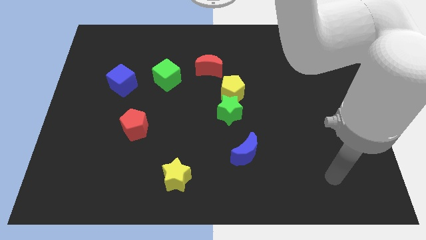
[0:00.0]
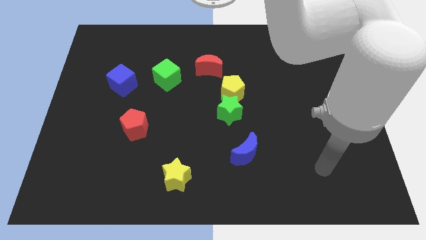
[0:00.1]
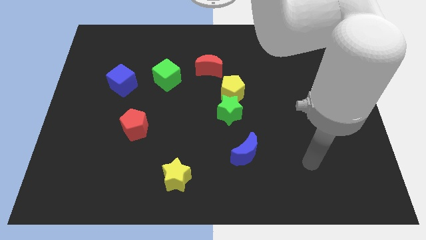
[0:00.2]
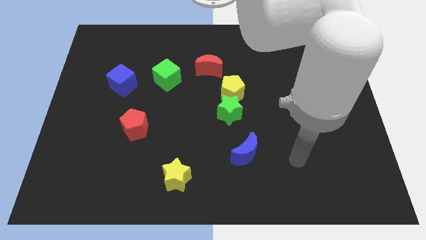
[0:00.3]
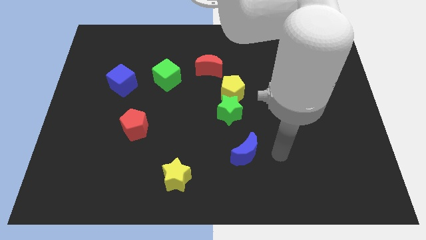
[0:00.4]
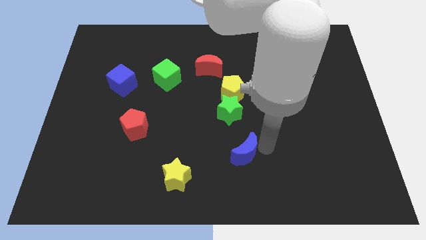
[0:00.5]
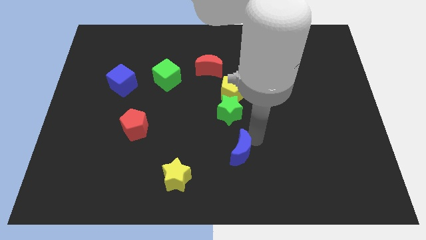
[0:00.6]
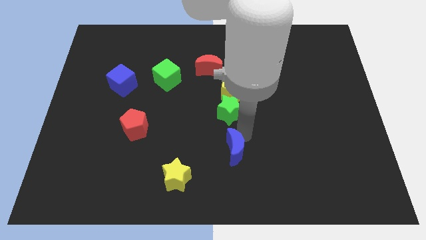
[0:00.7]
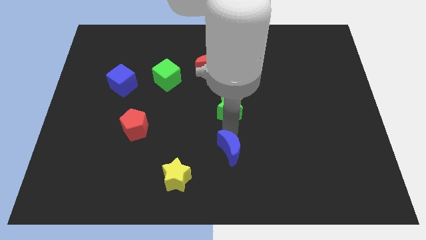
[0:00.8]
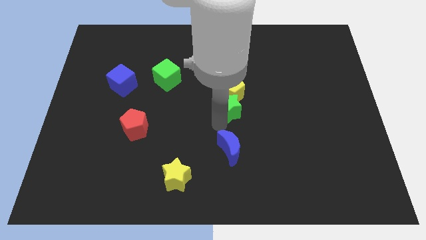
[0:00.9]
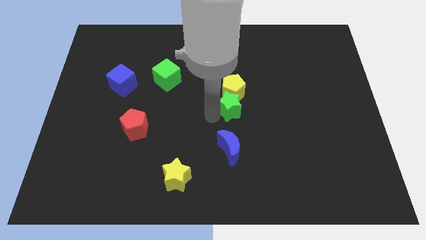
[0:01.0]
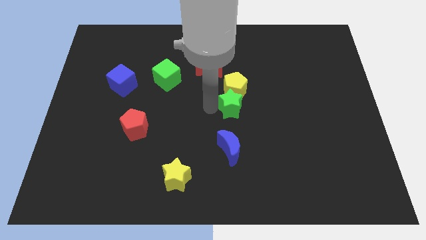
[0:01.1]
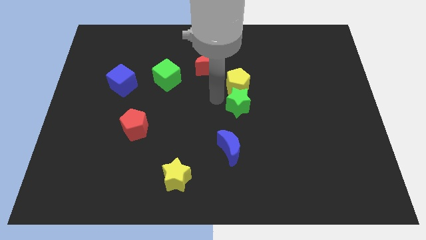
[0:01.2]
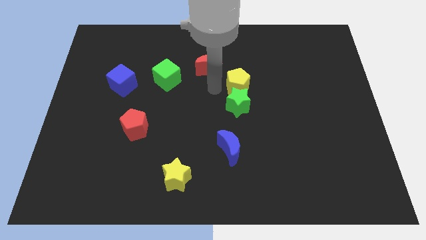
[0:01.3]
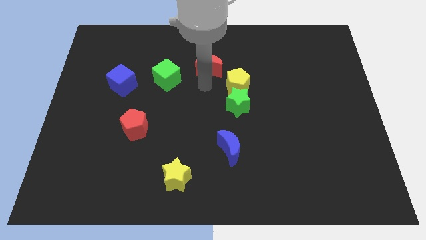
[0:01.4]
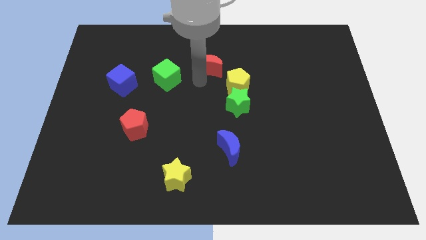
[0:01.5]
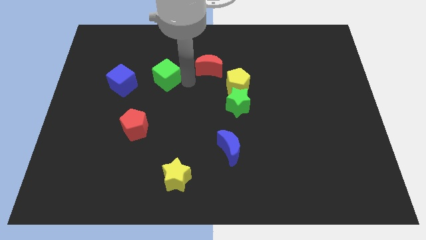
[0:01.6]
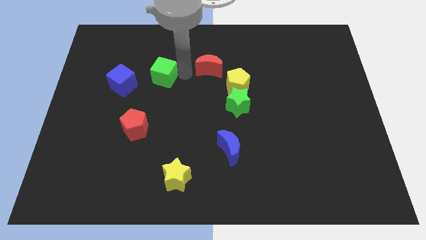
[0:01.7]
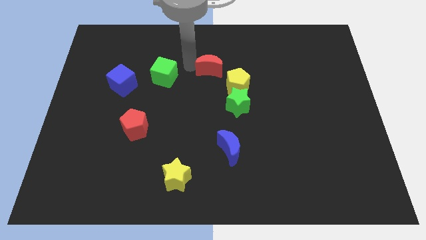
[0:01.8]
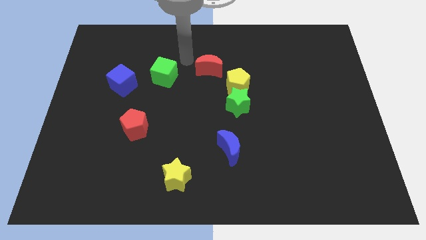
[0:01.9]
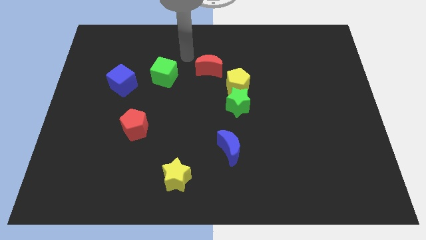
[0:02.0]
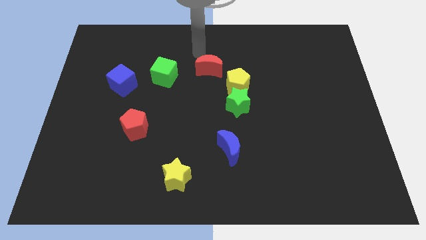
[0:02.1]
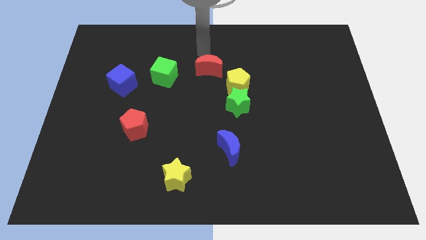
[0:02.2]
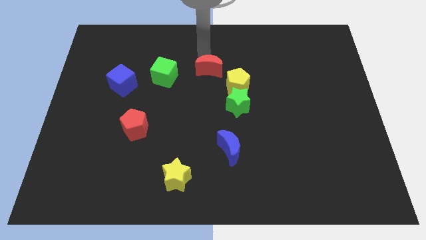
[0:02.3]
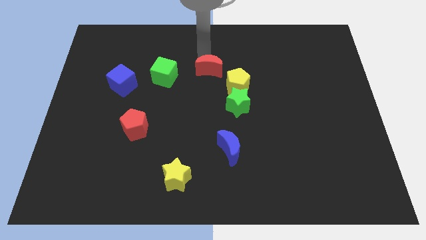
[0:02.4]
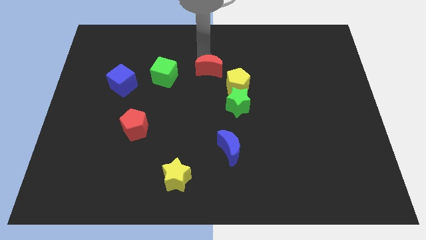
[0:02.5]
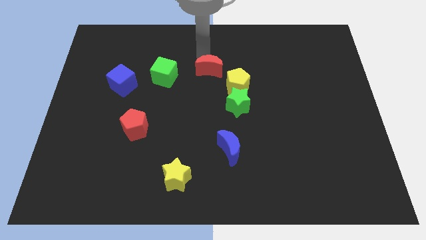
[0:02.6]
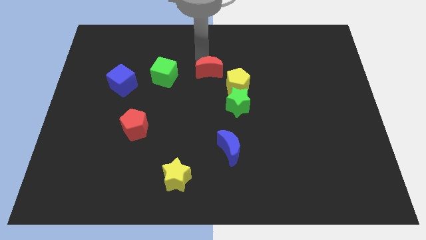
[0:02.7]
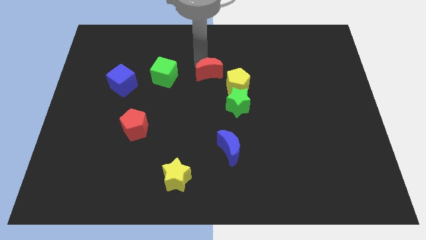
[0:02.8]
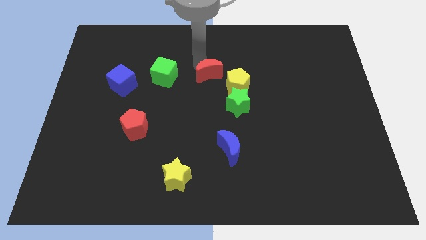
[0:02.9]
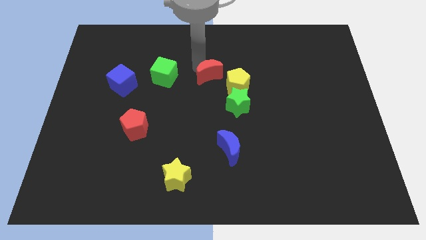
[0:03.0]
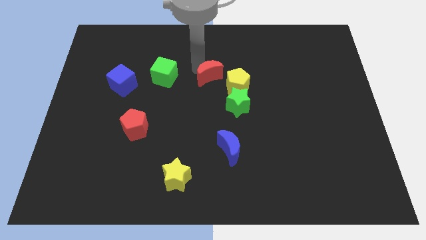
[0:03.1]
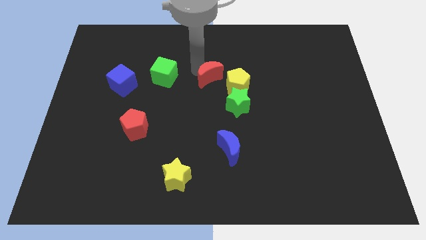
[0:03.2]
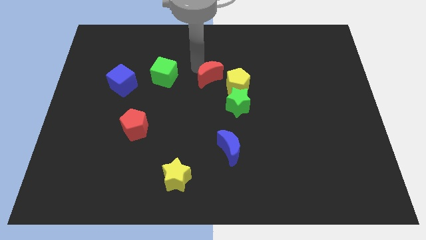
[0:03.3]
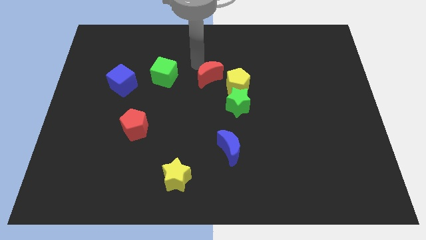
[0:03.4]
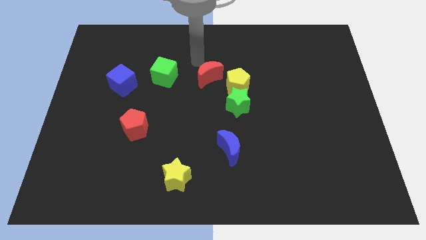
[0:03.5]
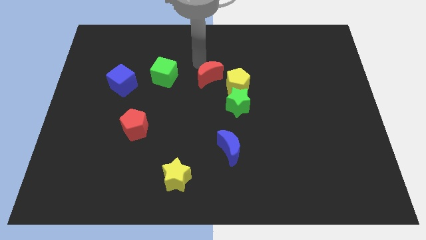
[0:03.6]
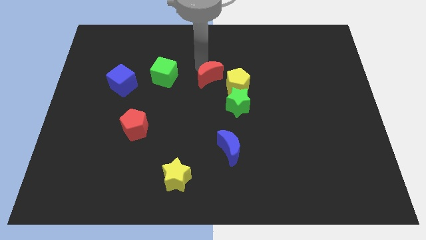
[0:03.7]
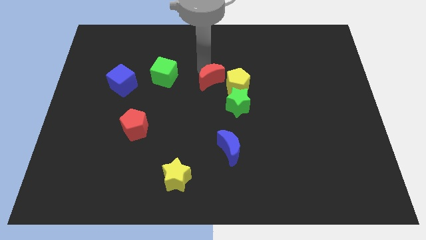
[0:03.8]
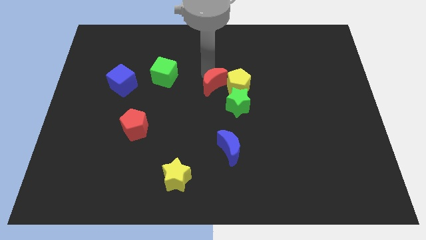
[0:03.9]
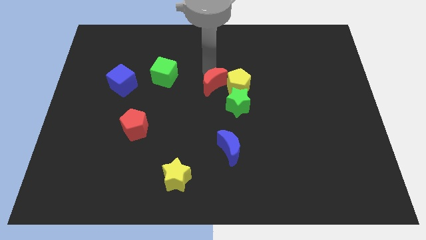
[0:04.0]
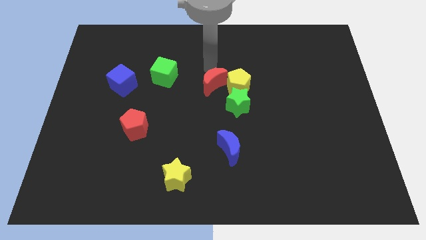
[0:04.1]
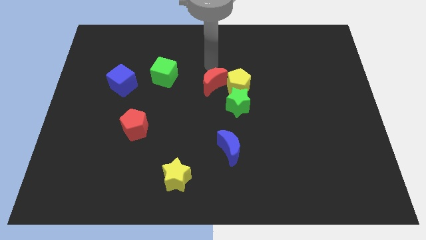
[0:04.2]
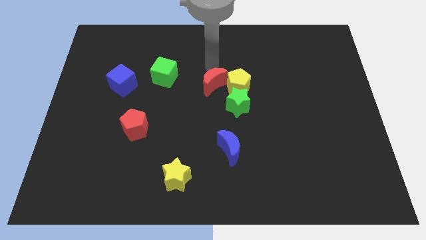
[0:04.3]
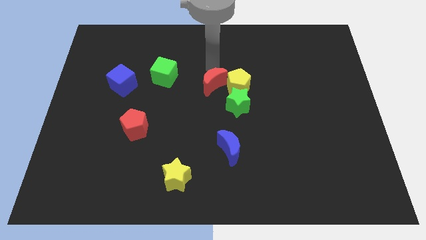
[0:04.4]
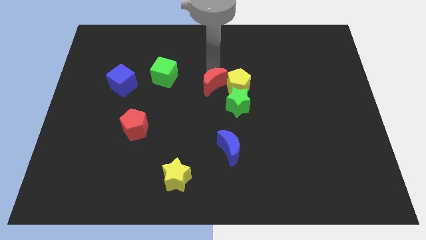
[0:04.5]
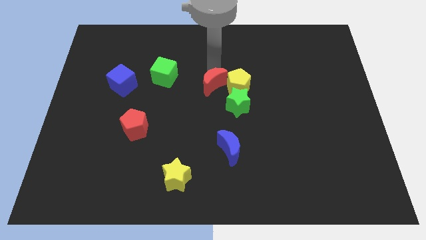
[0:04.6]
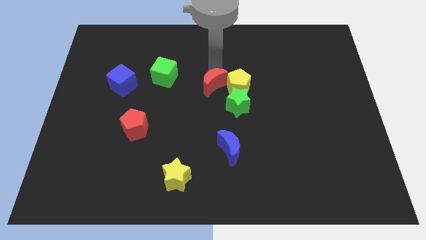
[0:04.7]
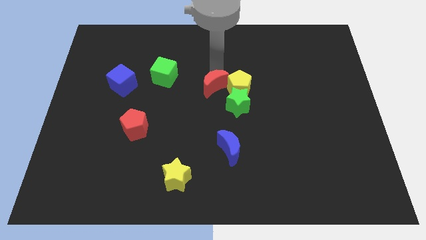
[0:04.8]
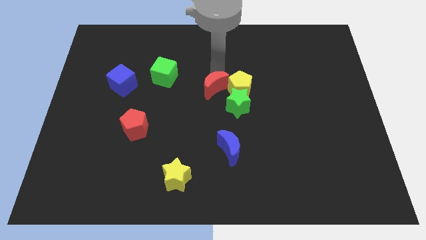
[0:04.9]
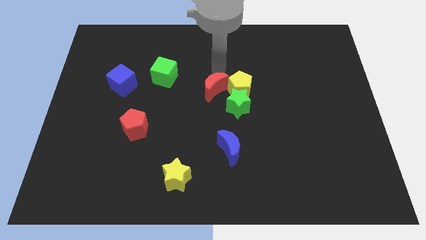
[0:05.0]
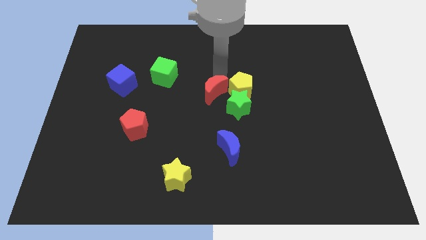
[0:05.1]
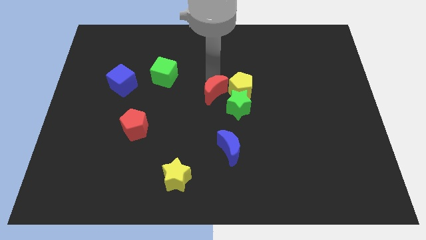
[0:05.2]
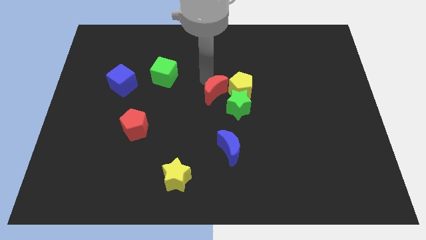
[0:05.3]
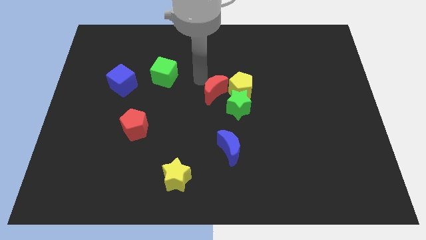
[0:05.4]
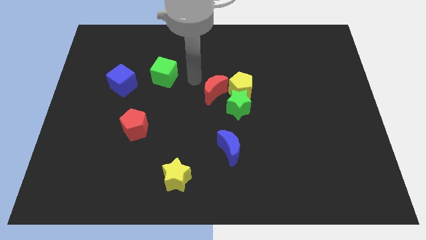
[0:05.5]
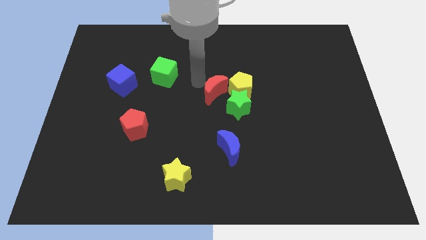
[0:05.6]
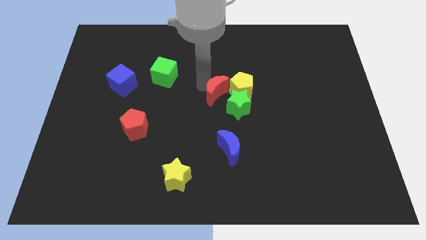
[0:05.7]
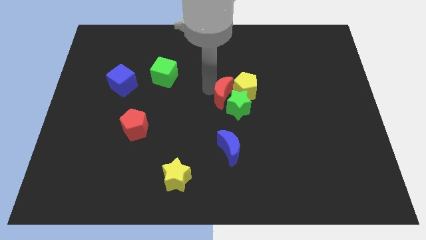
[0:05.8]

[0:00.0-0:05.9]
slide the red moon to the green star

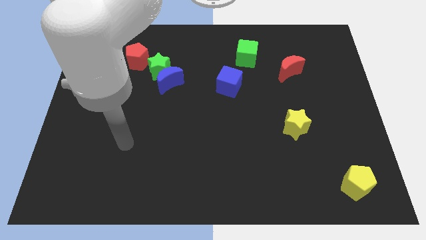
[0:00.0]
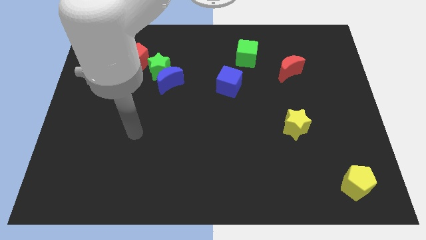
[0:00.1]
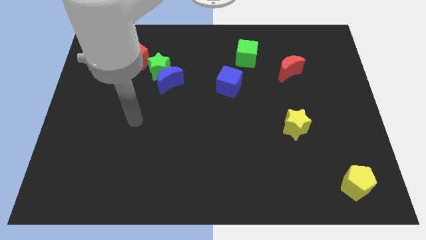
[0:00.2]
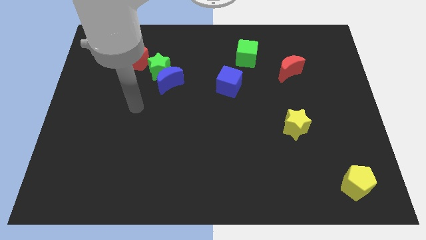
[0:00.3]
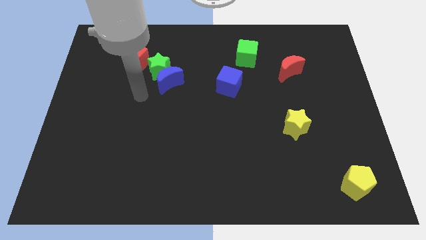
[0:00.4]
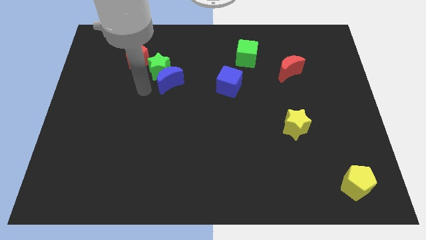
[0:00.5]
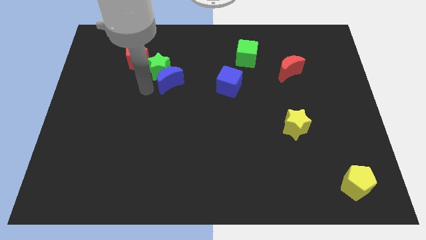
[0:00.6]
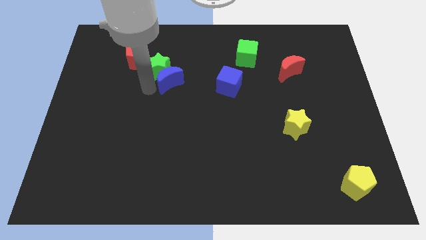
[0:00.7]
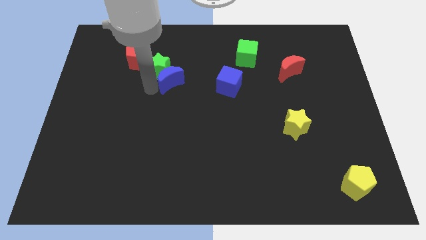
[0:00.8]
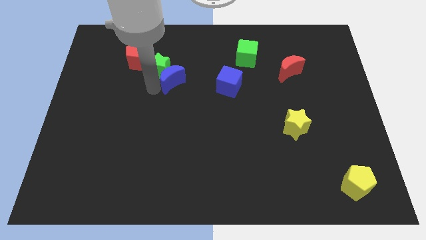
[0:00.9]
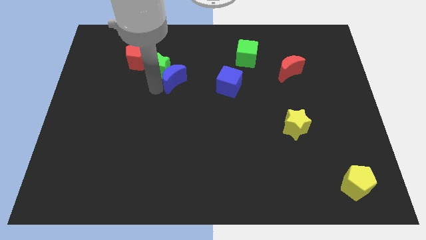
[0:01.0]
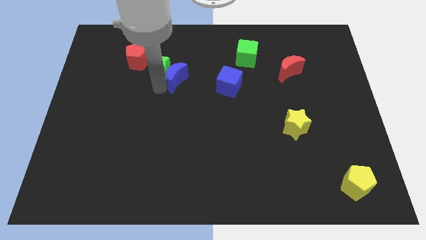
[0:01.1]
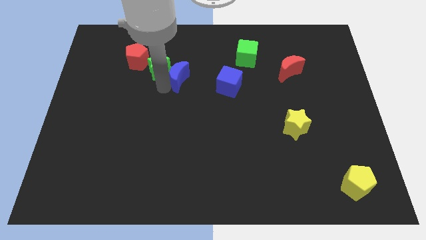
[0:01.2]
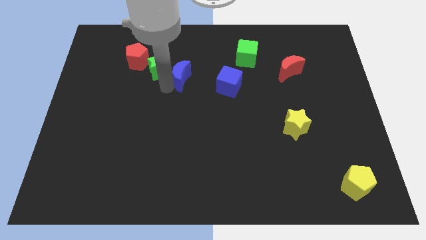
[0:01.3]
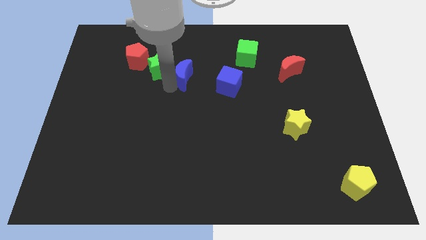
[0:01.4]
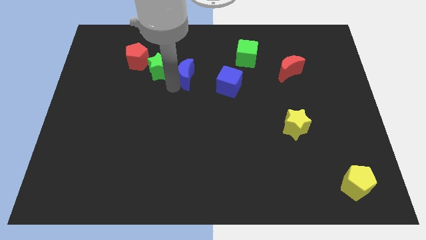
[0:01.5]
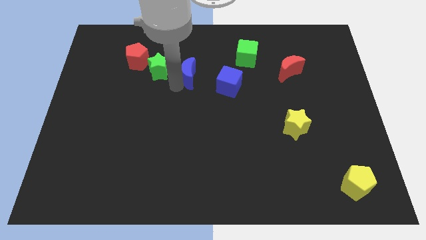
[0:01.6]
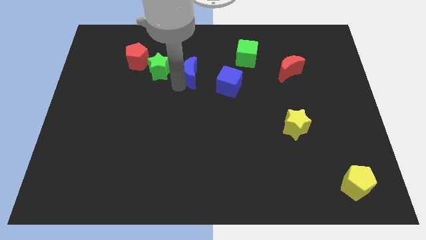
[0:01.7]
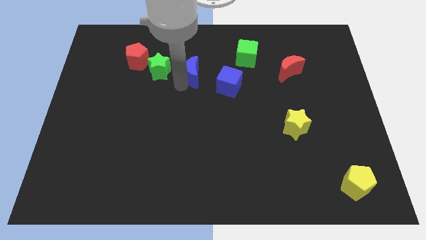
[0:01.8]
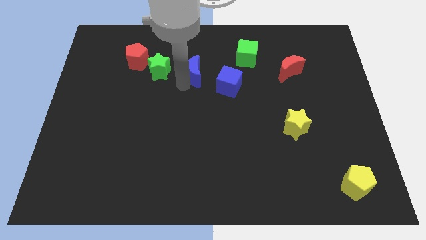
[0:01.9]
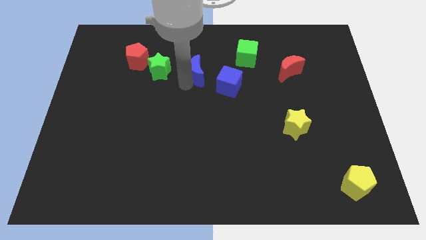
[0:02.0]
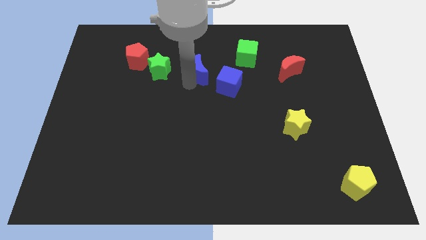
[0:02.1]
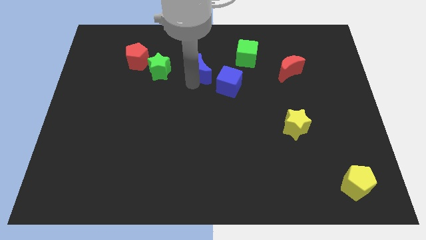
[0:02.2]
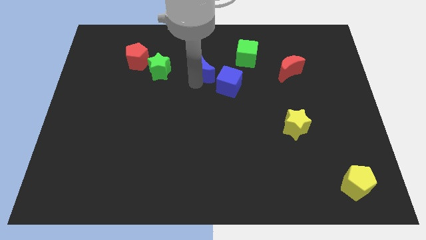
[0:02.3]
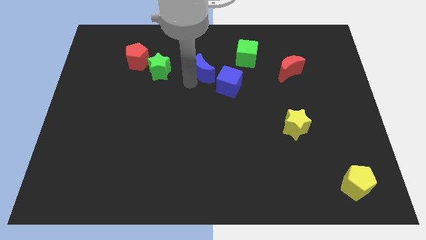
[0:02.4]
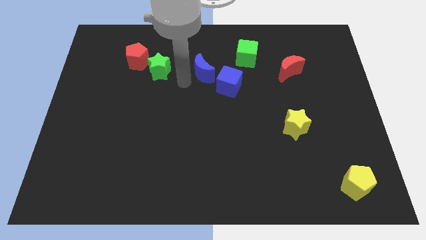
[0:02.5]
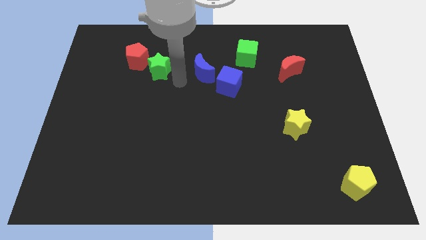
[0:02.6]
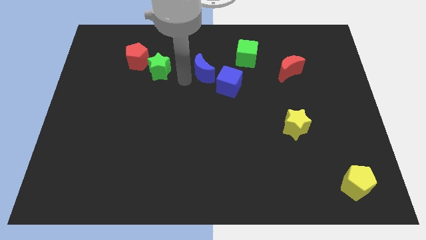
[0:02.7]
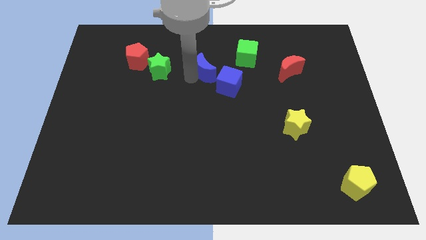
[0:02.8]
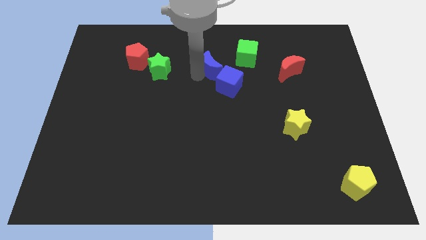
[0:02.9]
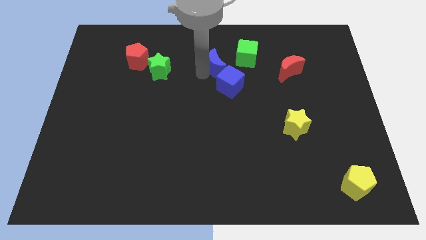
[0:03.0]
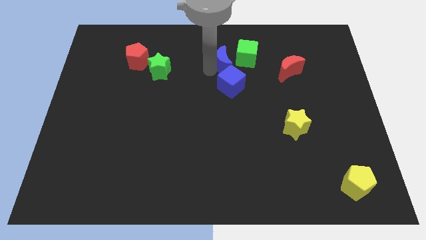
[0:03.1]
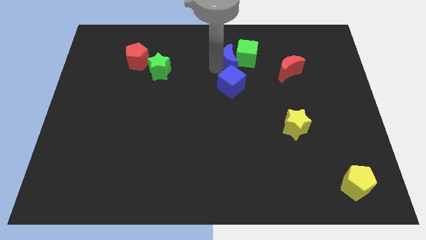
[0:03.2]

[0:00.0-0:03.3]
slide the blue moon next to the green cube
